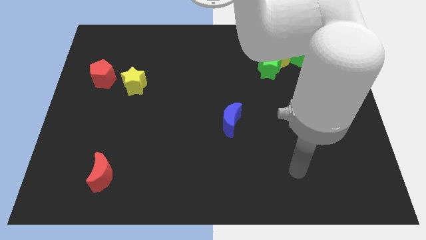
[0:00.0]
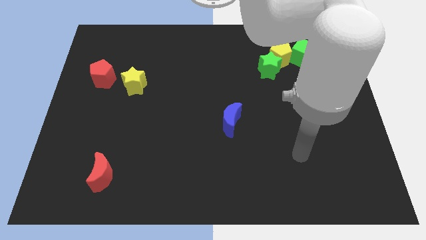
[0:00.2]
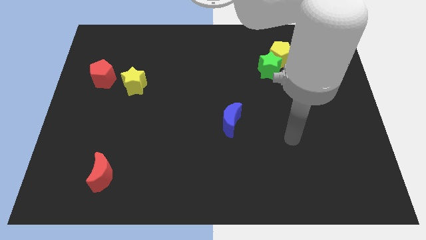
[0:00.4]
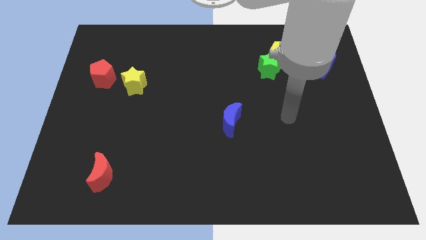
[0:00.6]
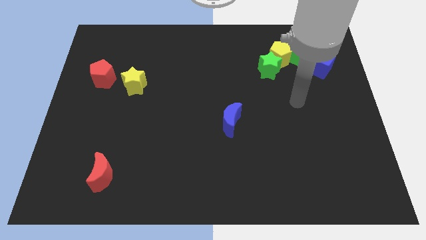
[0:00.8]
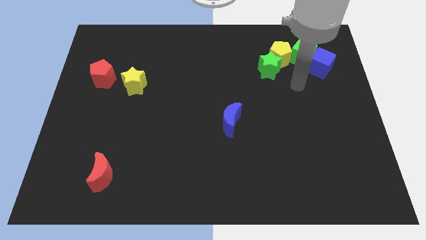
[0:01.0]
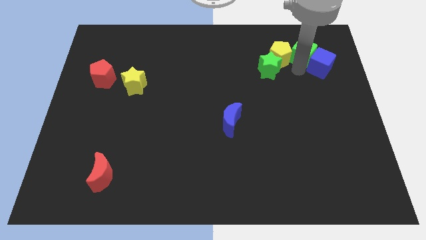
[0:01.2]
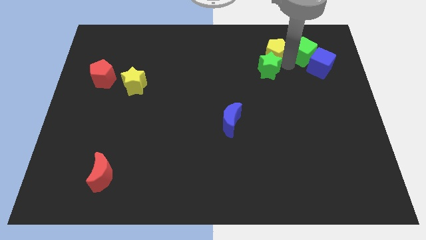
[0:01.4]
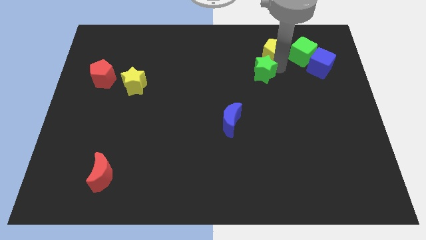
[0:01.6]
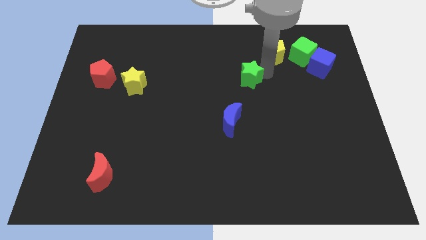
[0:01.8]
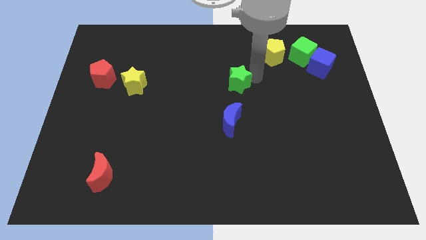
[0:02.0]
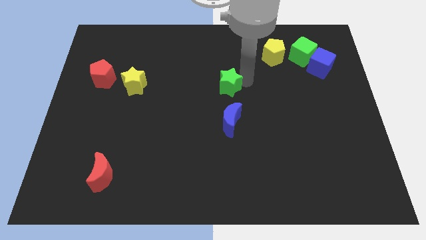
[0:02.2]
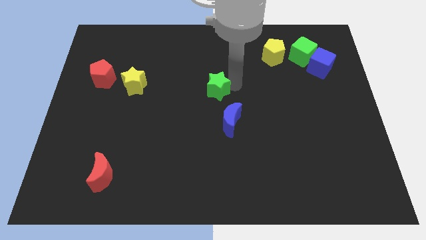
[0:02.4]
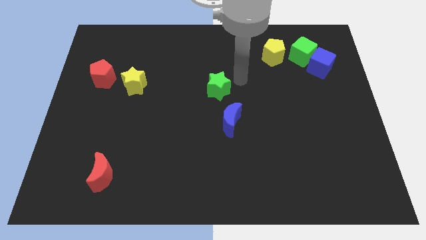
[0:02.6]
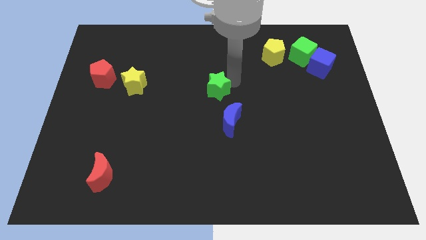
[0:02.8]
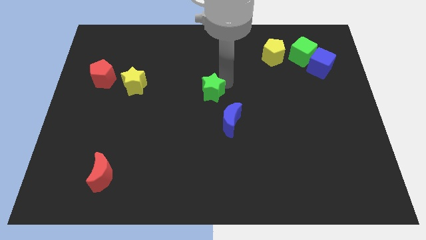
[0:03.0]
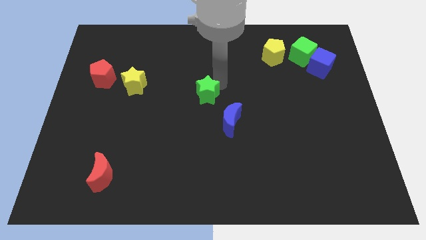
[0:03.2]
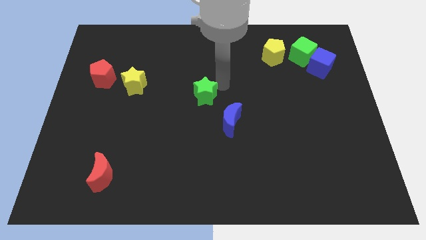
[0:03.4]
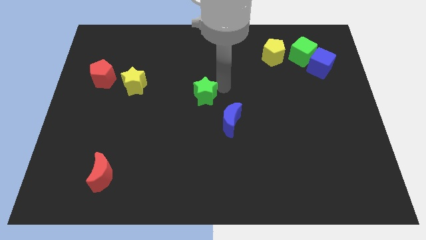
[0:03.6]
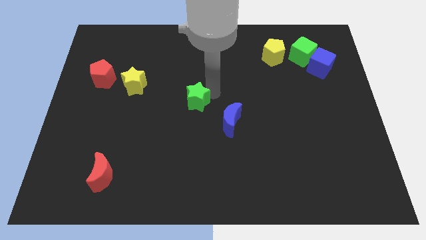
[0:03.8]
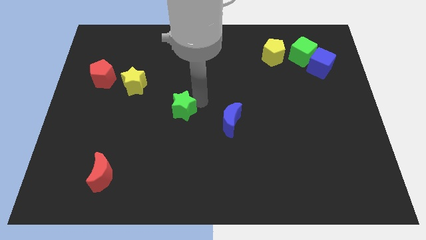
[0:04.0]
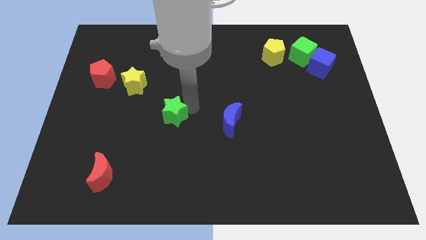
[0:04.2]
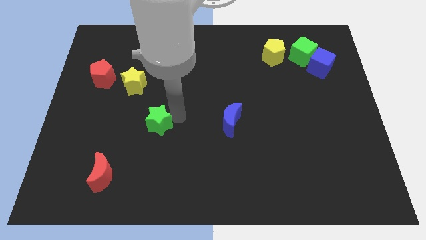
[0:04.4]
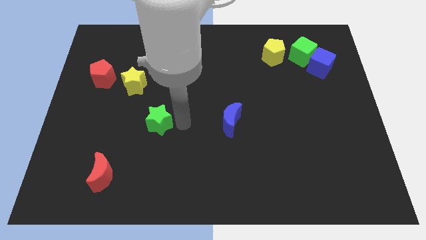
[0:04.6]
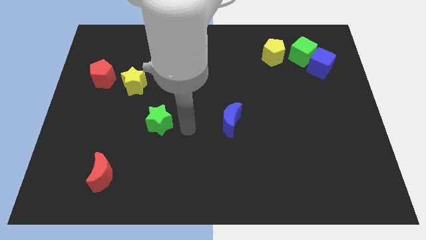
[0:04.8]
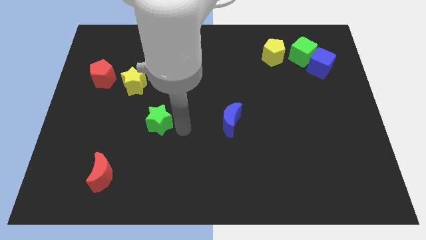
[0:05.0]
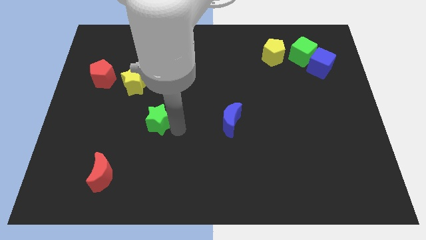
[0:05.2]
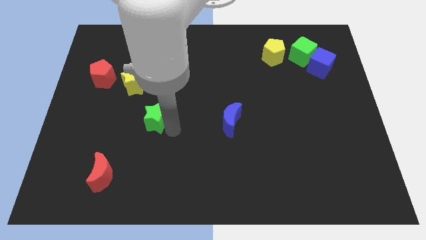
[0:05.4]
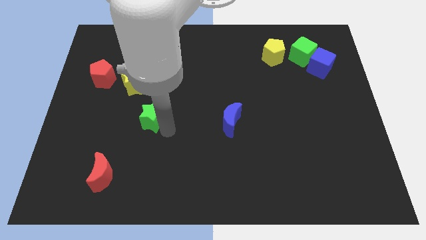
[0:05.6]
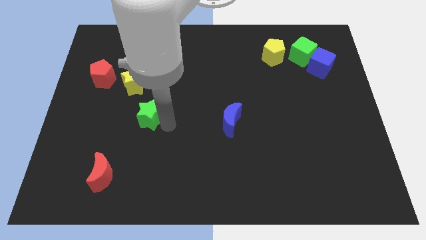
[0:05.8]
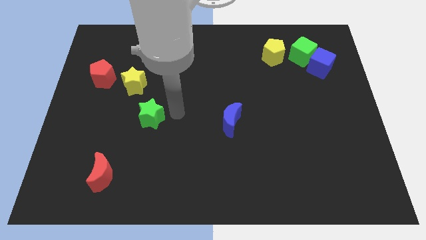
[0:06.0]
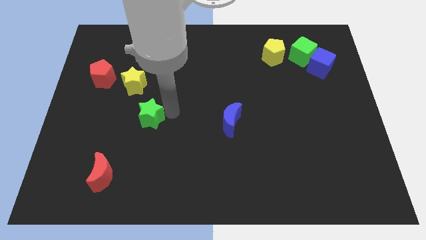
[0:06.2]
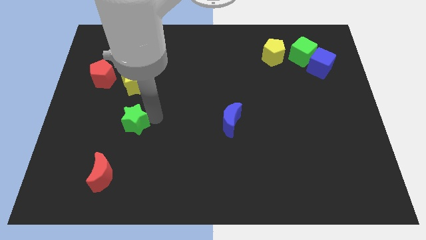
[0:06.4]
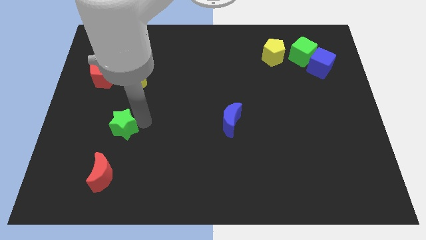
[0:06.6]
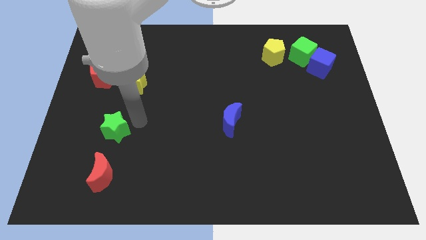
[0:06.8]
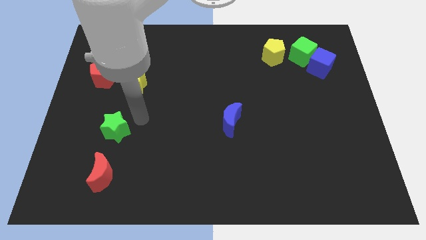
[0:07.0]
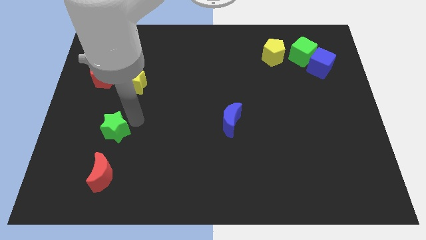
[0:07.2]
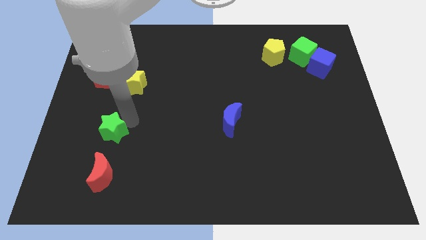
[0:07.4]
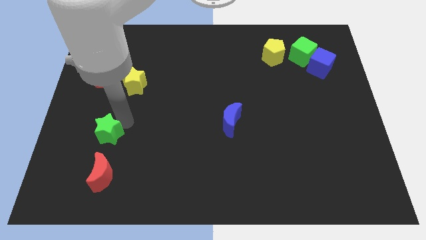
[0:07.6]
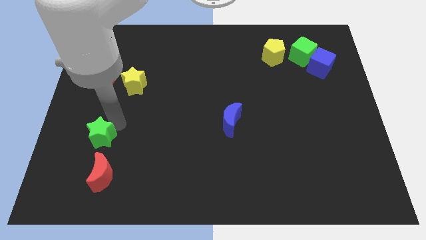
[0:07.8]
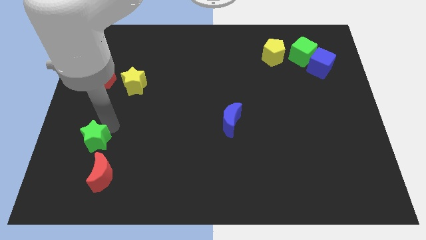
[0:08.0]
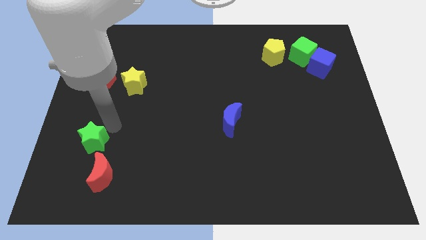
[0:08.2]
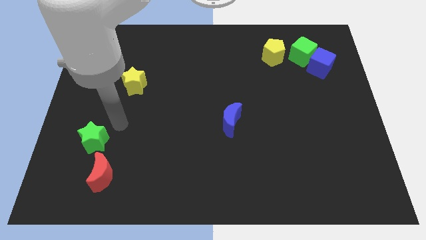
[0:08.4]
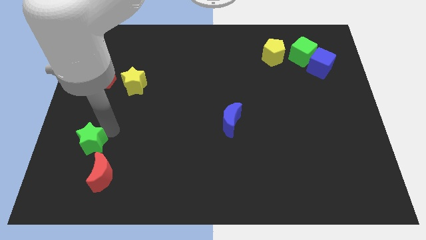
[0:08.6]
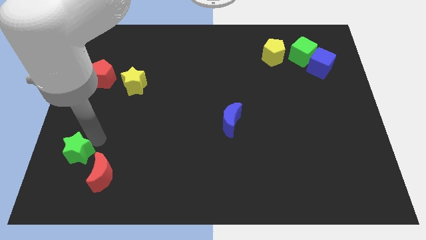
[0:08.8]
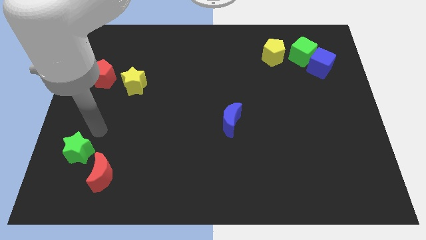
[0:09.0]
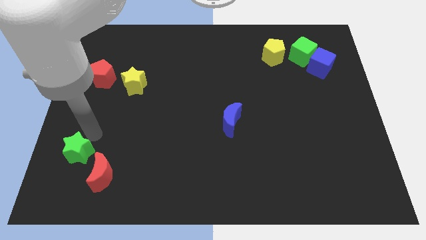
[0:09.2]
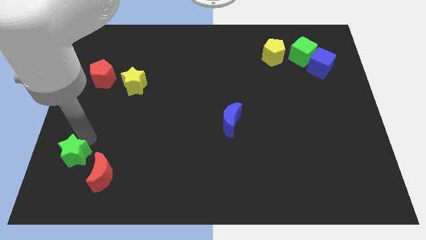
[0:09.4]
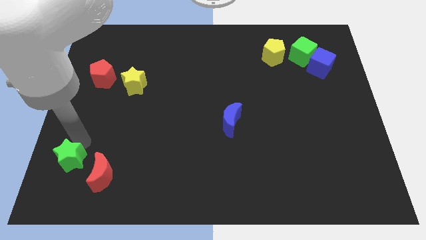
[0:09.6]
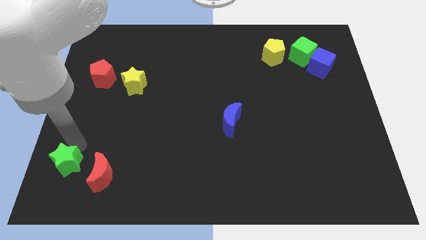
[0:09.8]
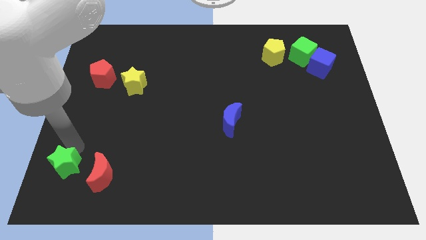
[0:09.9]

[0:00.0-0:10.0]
push the green star to the bottom left corner

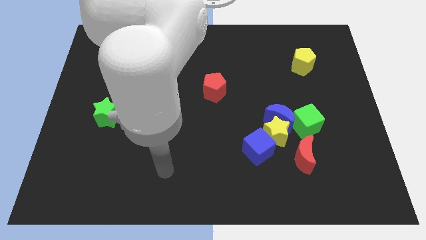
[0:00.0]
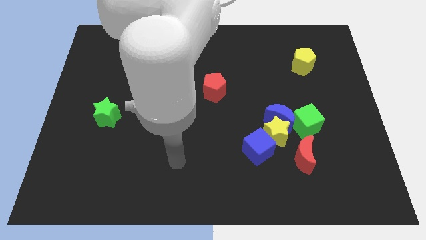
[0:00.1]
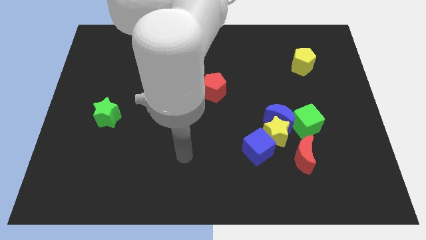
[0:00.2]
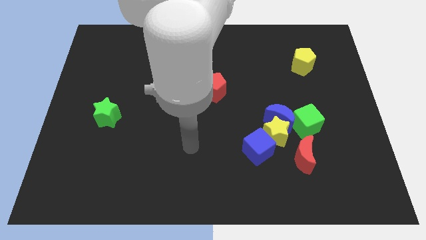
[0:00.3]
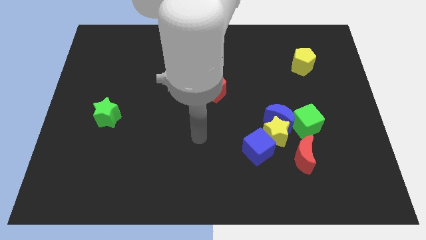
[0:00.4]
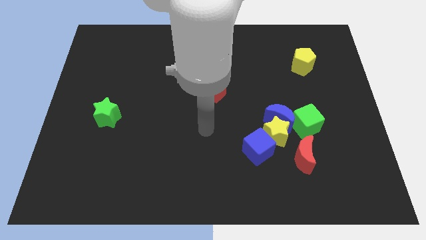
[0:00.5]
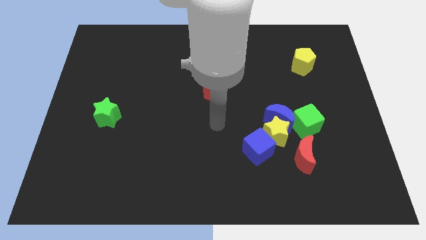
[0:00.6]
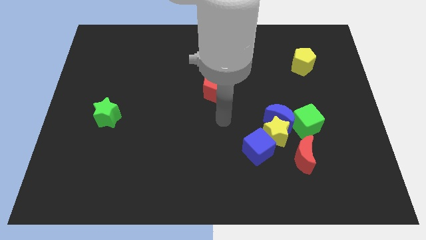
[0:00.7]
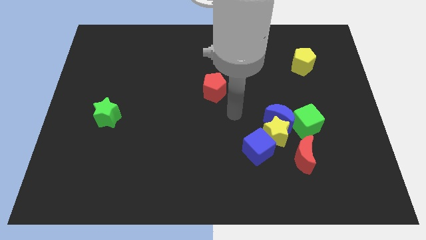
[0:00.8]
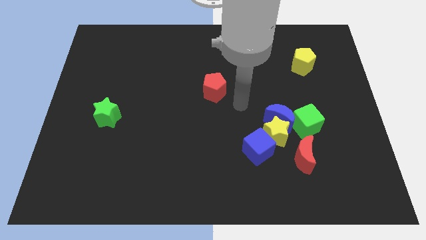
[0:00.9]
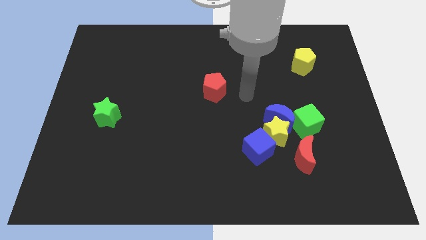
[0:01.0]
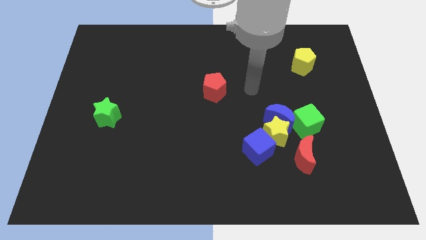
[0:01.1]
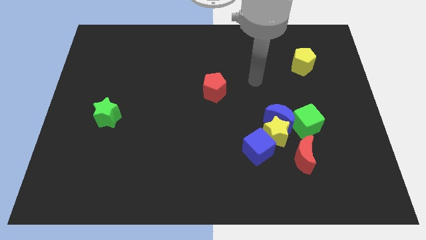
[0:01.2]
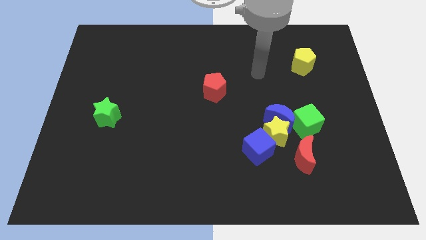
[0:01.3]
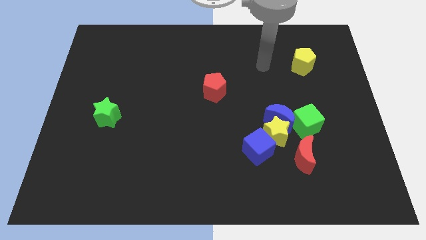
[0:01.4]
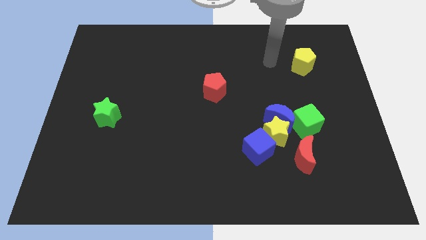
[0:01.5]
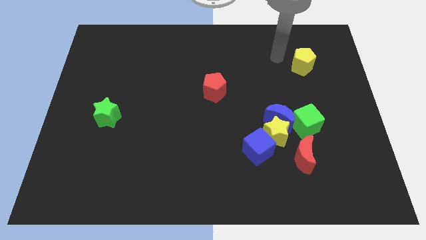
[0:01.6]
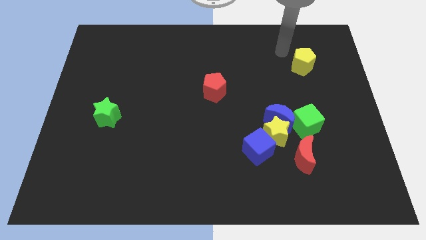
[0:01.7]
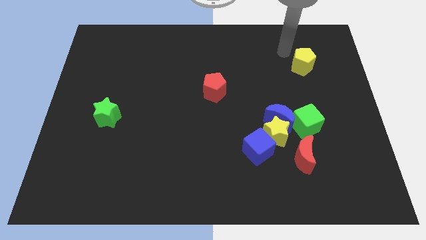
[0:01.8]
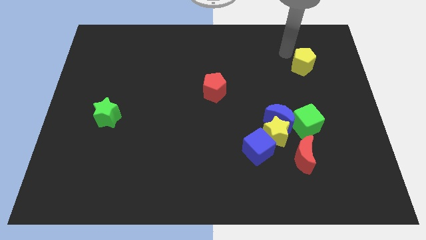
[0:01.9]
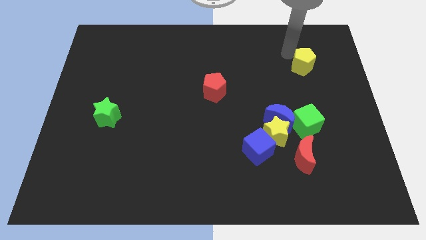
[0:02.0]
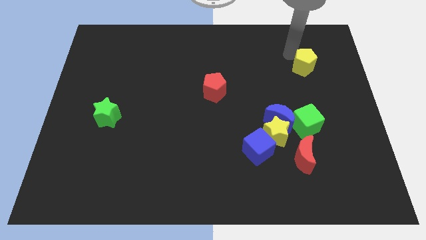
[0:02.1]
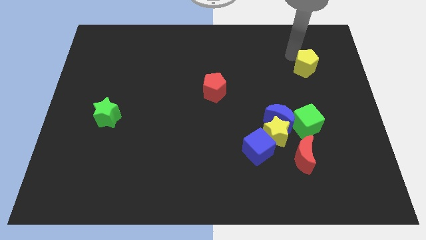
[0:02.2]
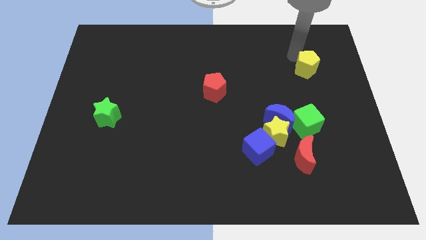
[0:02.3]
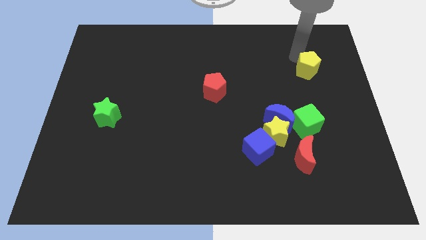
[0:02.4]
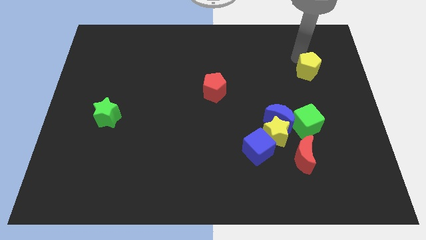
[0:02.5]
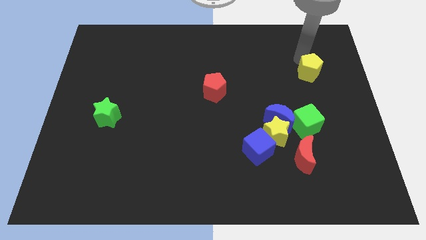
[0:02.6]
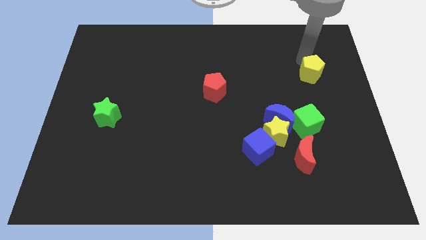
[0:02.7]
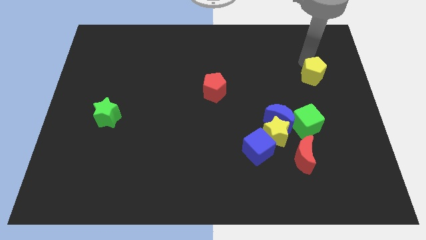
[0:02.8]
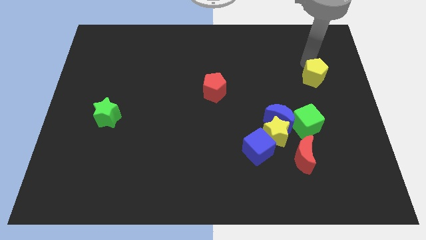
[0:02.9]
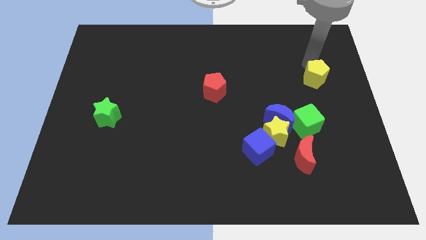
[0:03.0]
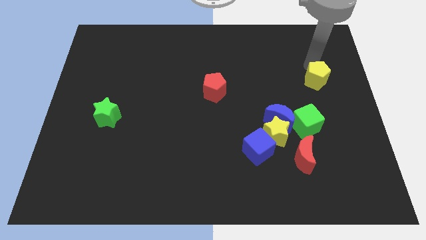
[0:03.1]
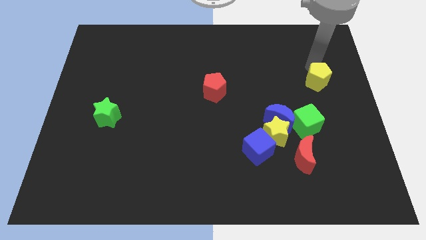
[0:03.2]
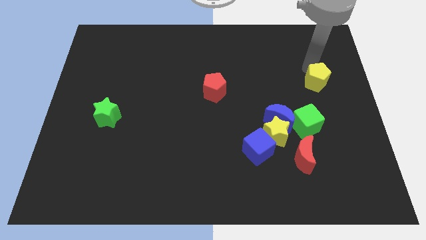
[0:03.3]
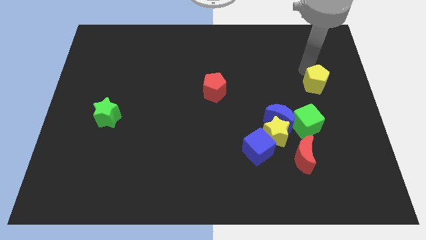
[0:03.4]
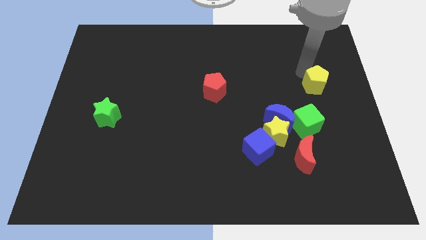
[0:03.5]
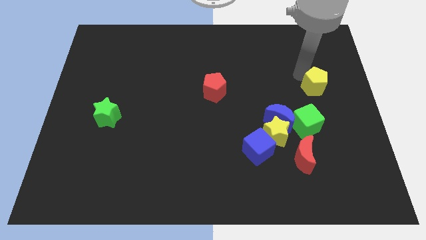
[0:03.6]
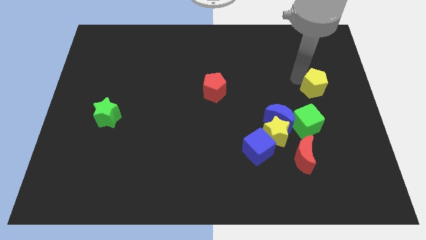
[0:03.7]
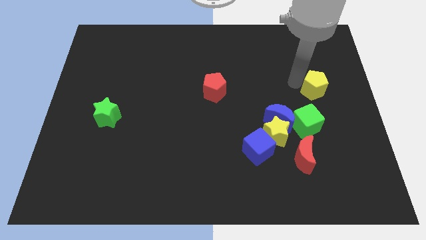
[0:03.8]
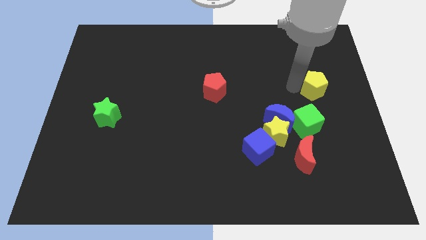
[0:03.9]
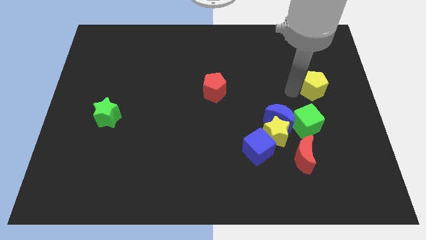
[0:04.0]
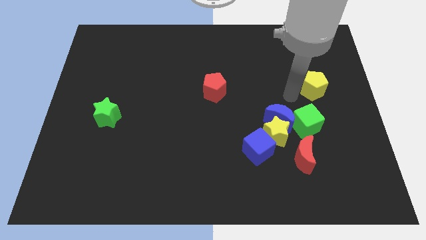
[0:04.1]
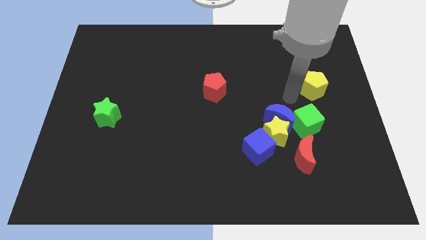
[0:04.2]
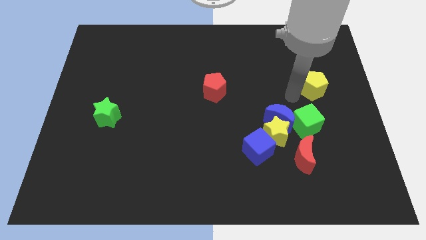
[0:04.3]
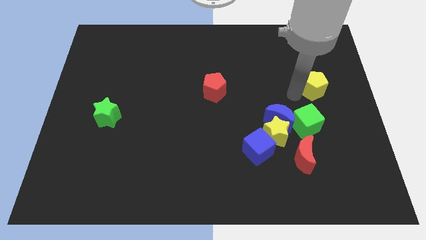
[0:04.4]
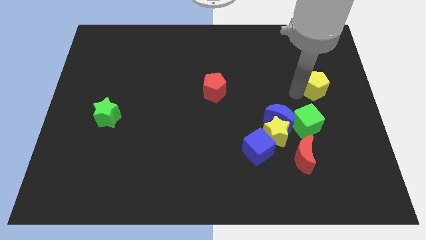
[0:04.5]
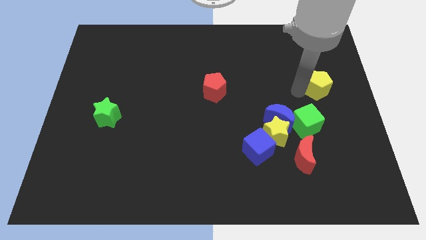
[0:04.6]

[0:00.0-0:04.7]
put the yellow pentagon to the right side
